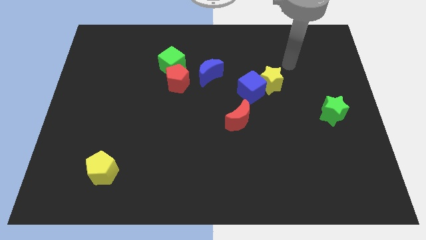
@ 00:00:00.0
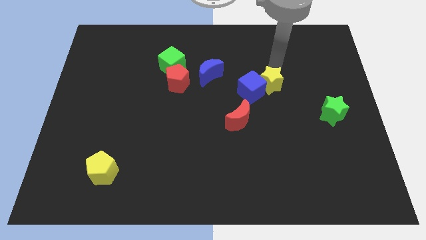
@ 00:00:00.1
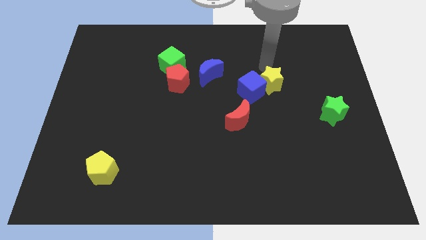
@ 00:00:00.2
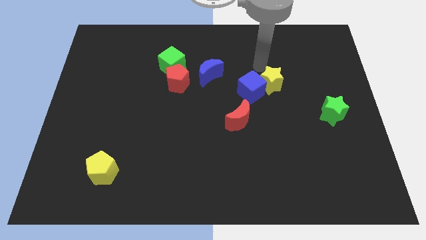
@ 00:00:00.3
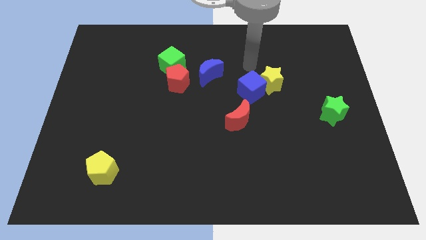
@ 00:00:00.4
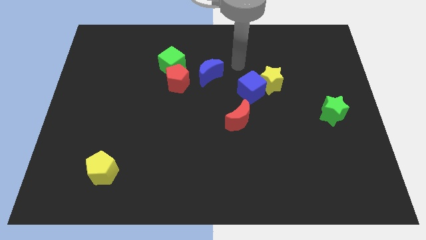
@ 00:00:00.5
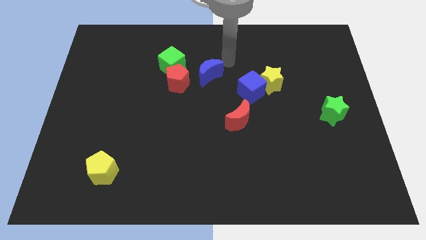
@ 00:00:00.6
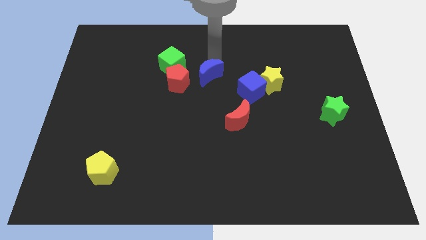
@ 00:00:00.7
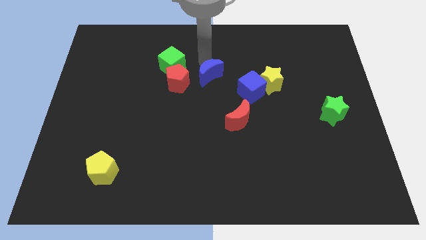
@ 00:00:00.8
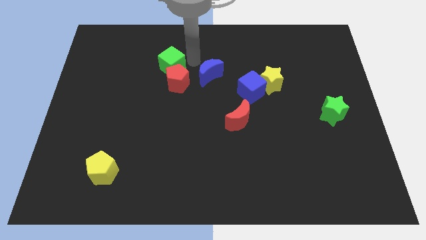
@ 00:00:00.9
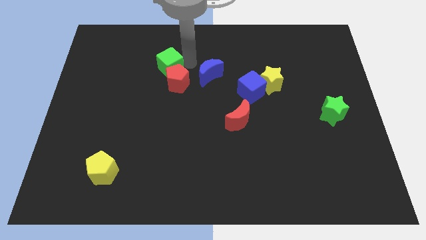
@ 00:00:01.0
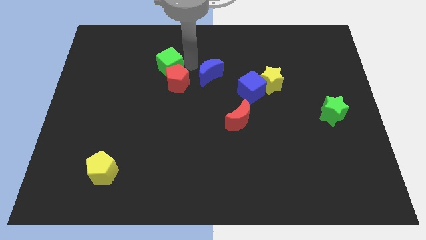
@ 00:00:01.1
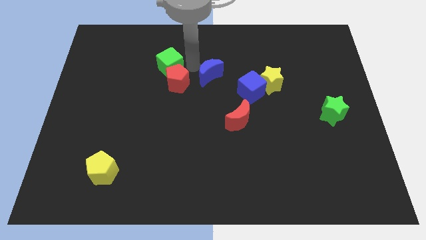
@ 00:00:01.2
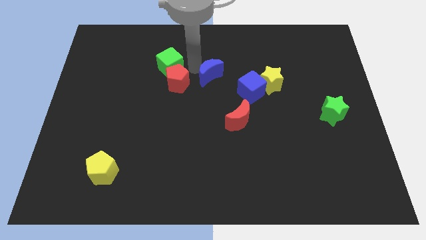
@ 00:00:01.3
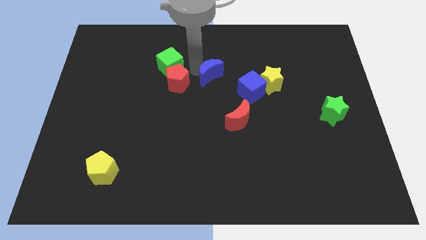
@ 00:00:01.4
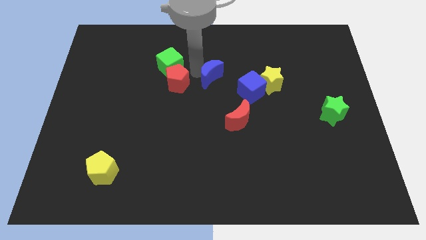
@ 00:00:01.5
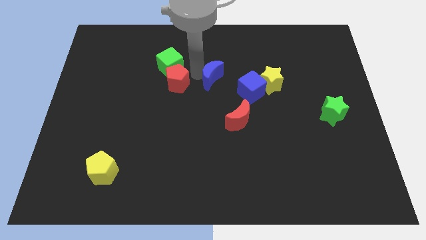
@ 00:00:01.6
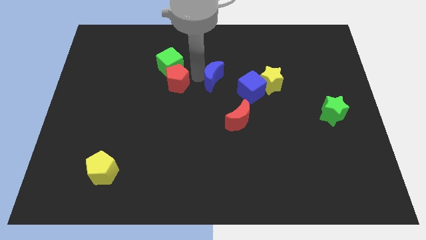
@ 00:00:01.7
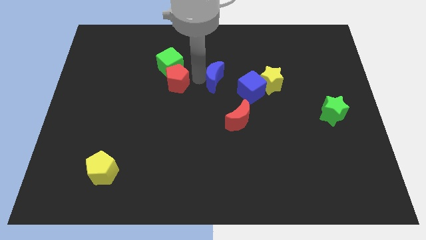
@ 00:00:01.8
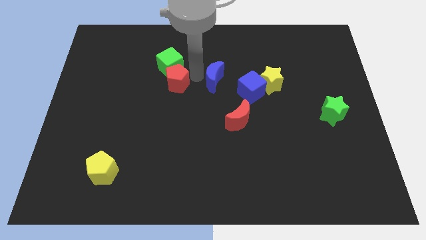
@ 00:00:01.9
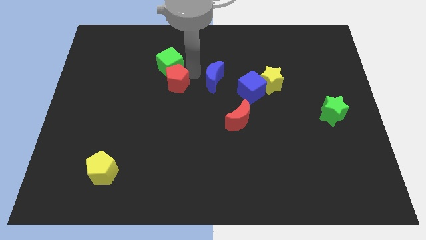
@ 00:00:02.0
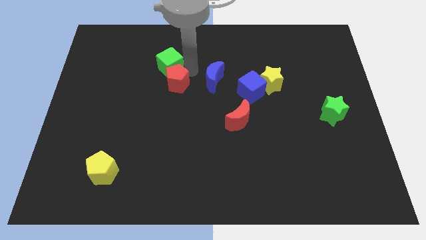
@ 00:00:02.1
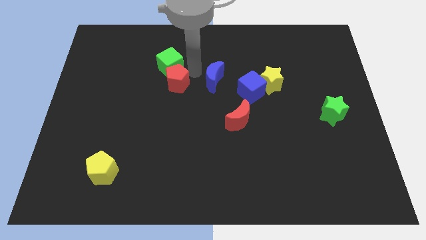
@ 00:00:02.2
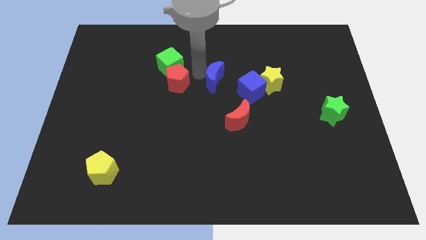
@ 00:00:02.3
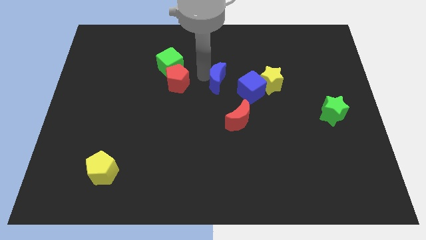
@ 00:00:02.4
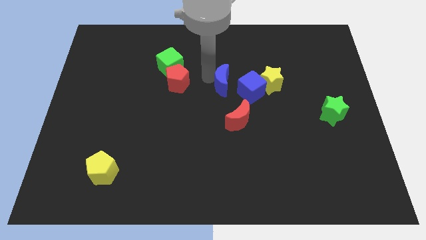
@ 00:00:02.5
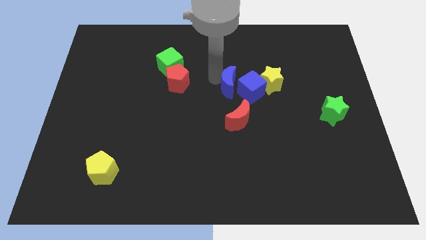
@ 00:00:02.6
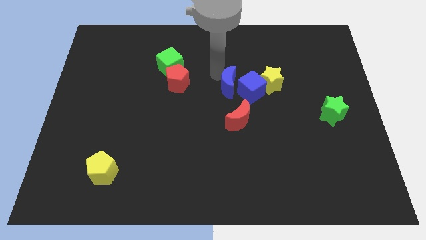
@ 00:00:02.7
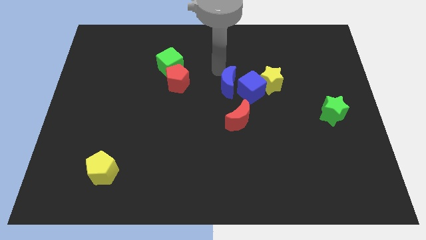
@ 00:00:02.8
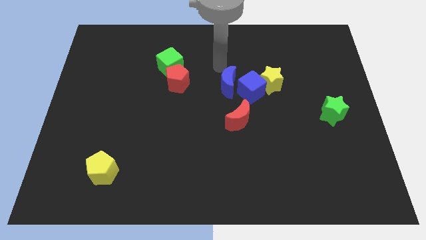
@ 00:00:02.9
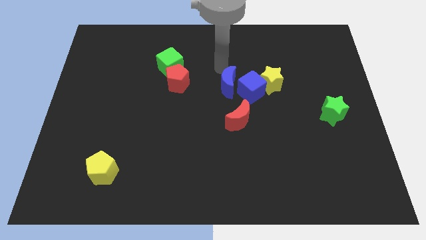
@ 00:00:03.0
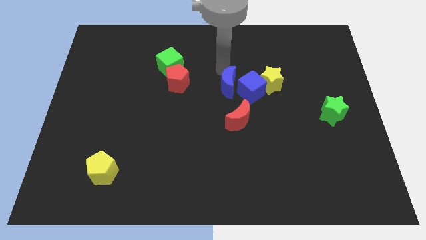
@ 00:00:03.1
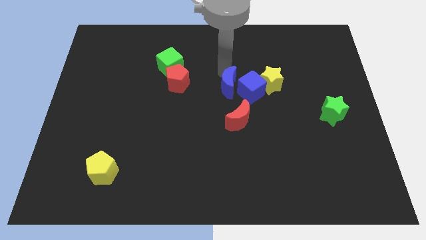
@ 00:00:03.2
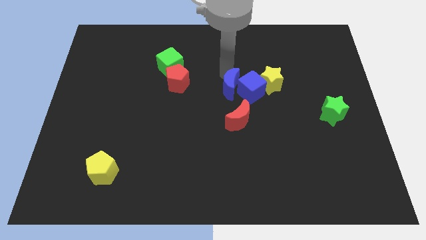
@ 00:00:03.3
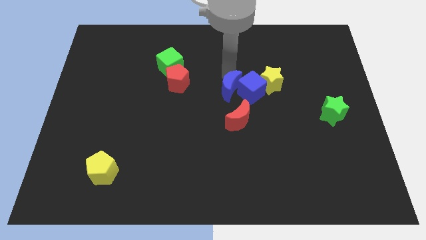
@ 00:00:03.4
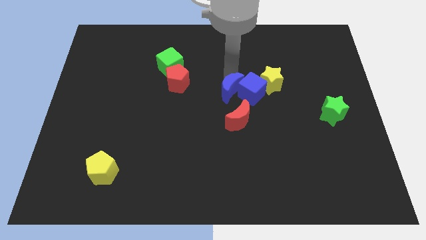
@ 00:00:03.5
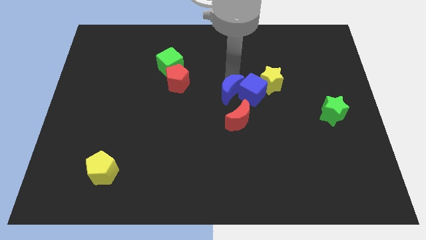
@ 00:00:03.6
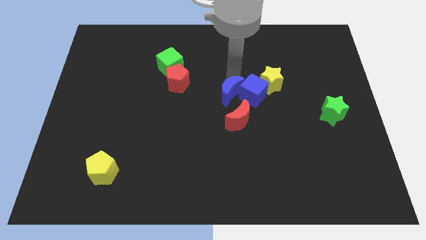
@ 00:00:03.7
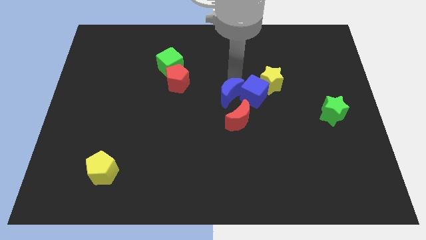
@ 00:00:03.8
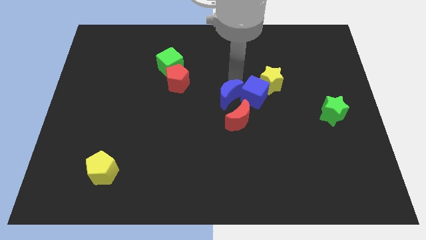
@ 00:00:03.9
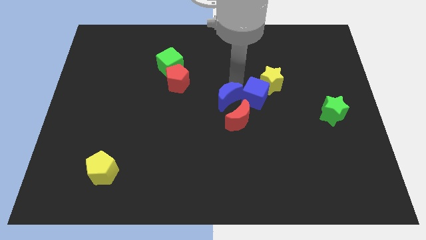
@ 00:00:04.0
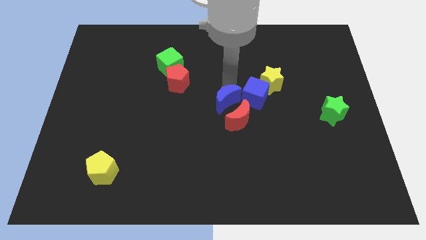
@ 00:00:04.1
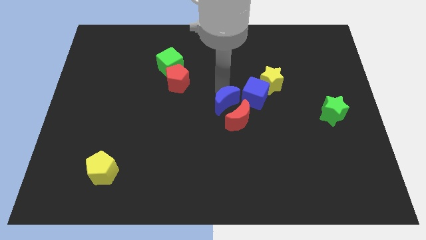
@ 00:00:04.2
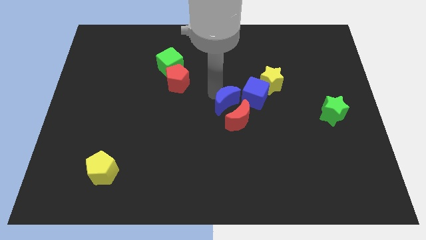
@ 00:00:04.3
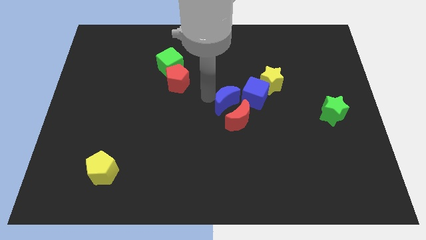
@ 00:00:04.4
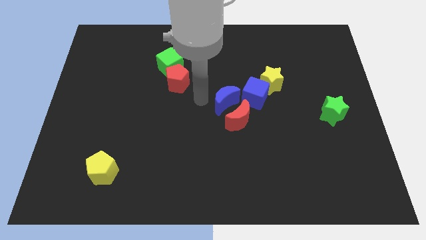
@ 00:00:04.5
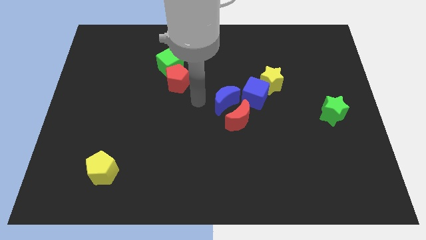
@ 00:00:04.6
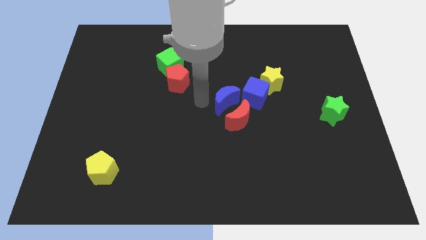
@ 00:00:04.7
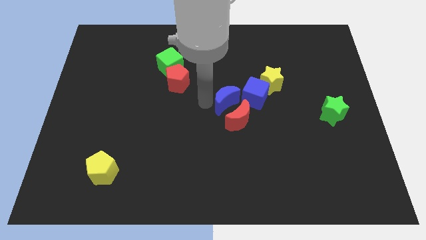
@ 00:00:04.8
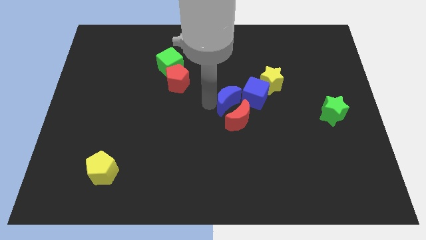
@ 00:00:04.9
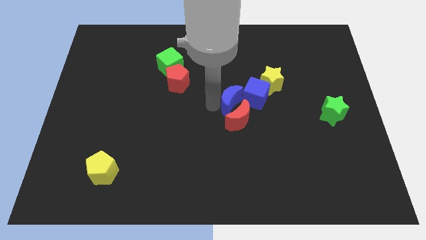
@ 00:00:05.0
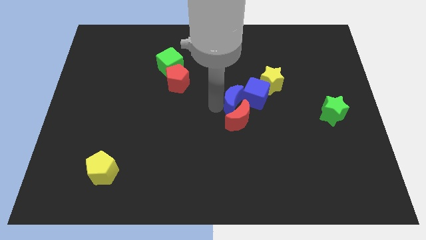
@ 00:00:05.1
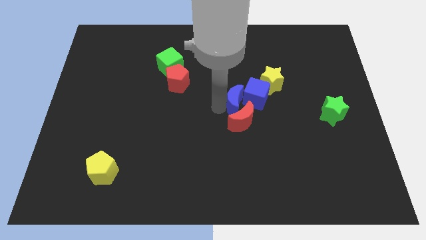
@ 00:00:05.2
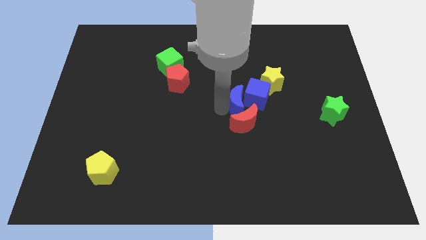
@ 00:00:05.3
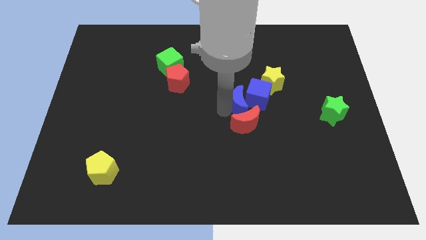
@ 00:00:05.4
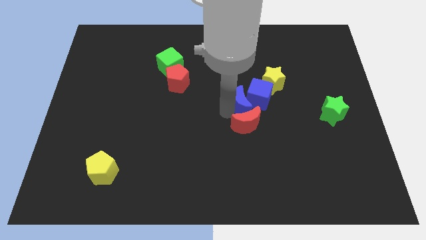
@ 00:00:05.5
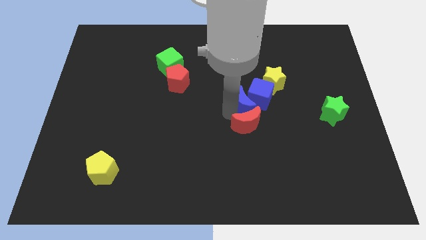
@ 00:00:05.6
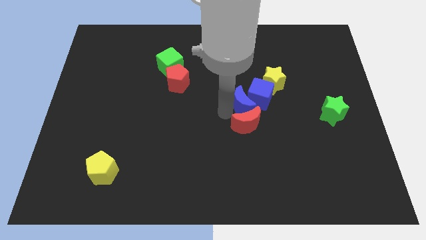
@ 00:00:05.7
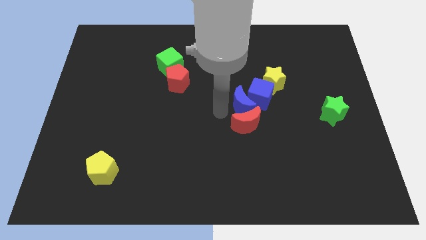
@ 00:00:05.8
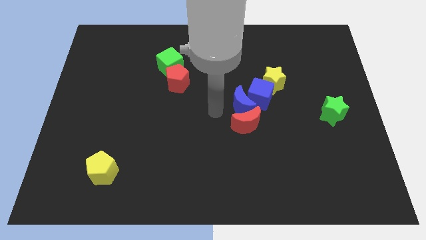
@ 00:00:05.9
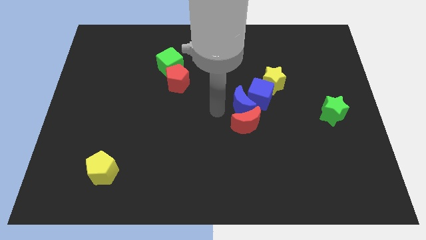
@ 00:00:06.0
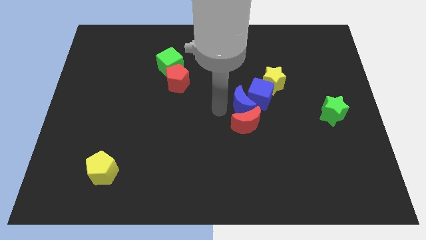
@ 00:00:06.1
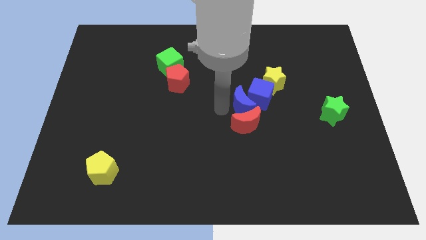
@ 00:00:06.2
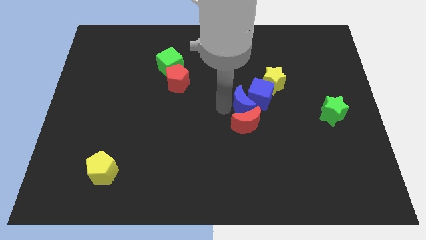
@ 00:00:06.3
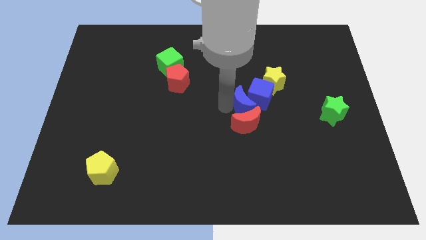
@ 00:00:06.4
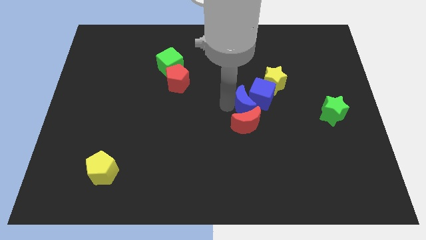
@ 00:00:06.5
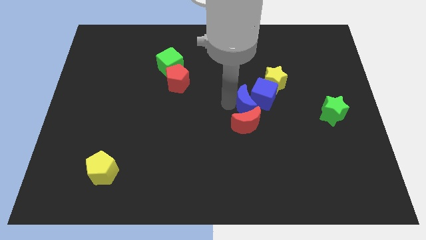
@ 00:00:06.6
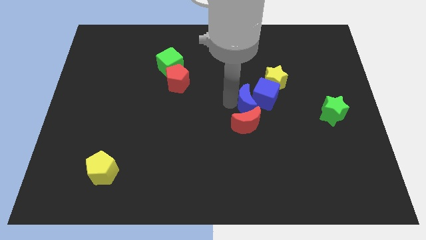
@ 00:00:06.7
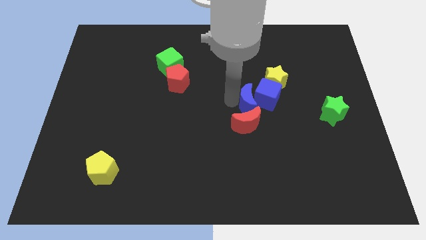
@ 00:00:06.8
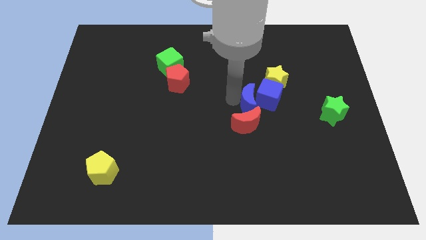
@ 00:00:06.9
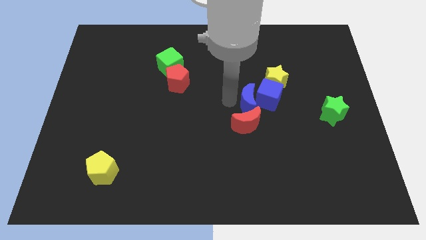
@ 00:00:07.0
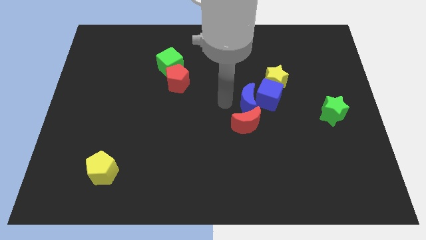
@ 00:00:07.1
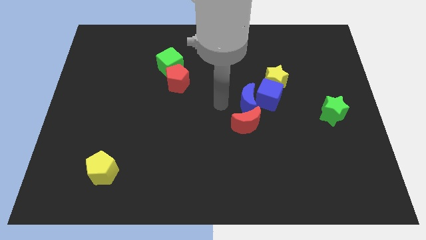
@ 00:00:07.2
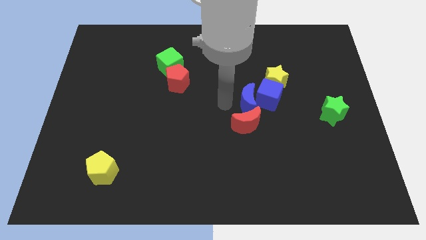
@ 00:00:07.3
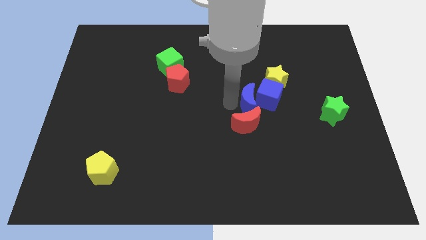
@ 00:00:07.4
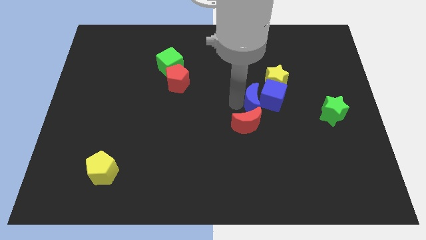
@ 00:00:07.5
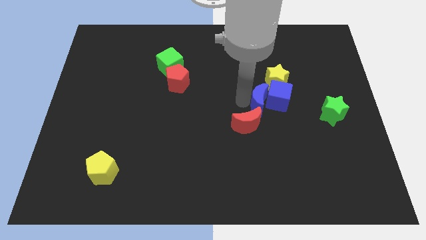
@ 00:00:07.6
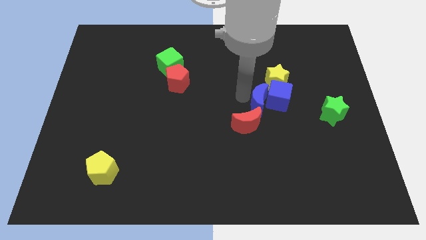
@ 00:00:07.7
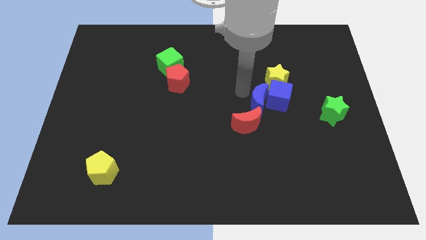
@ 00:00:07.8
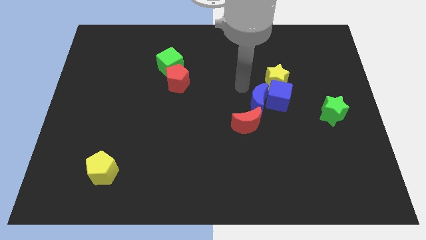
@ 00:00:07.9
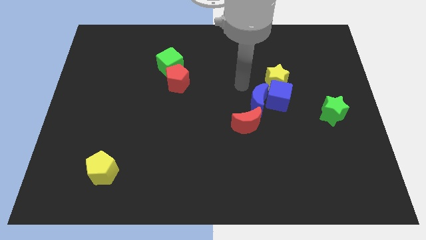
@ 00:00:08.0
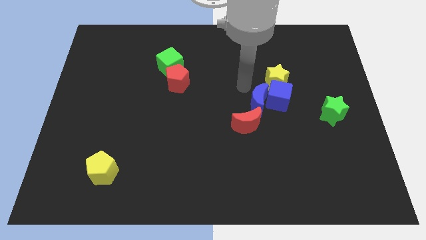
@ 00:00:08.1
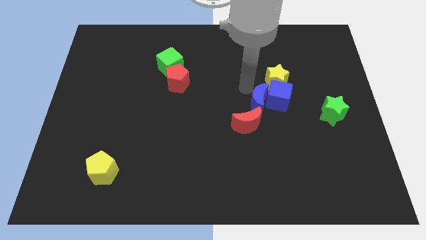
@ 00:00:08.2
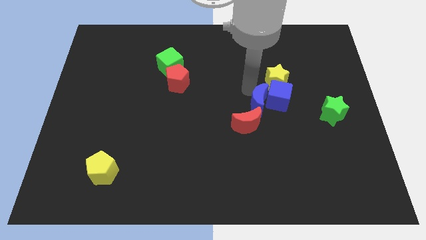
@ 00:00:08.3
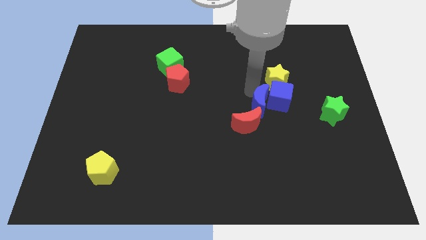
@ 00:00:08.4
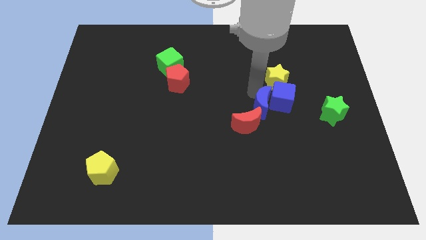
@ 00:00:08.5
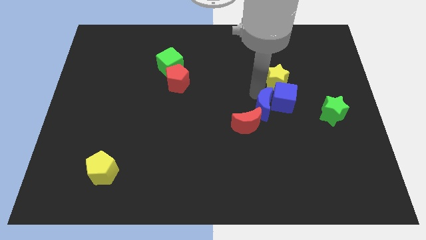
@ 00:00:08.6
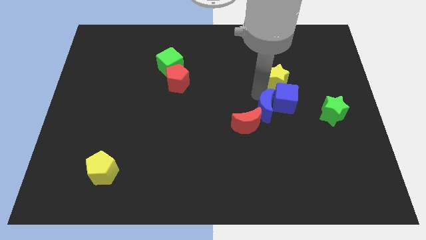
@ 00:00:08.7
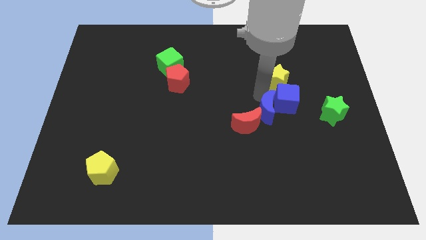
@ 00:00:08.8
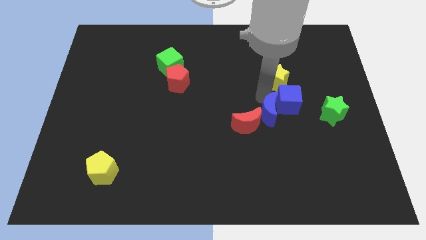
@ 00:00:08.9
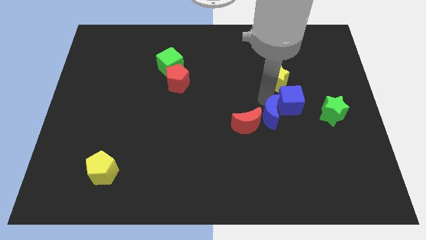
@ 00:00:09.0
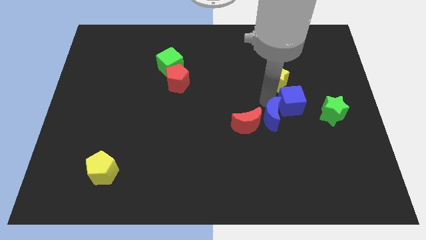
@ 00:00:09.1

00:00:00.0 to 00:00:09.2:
push the blue moon down and right diagonally
